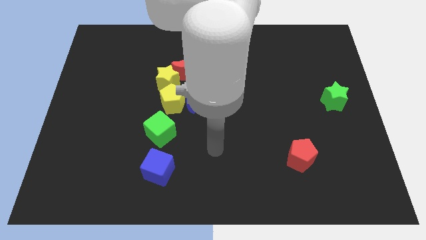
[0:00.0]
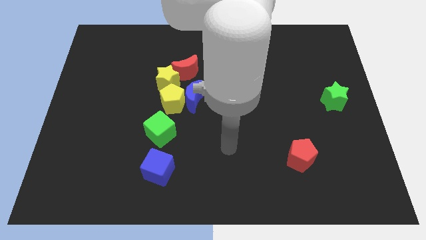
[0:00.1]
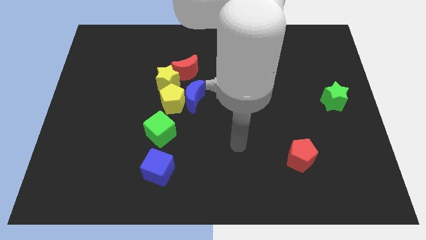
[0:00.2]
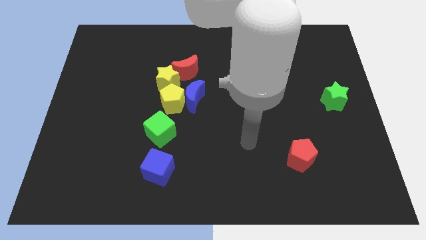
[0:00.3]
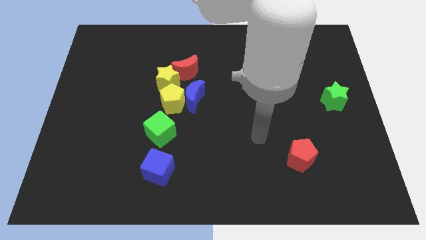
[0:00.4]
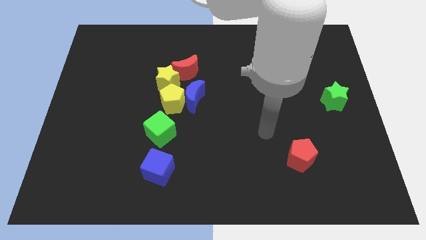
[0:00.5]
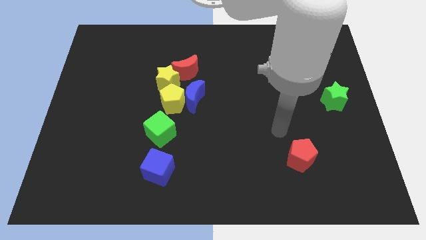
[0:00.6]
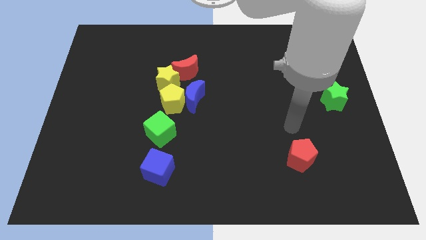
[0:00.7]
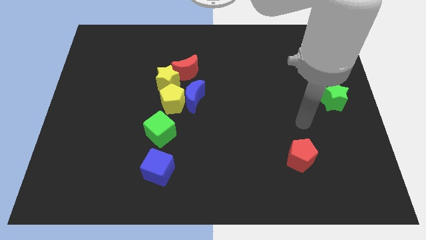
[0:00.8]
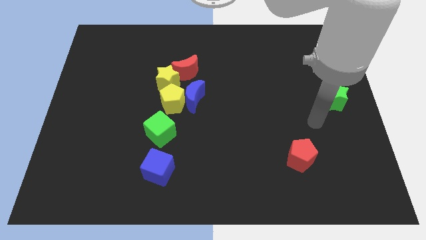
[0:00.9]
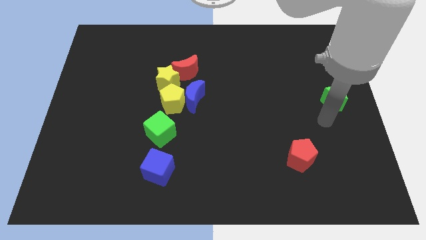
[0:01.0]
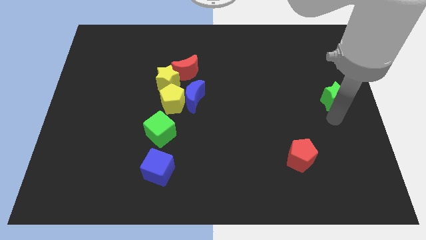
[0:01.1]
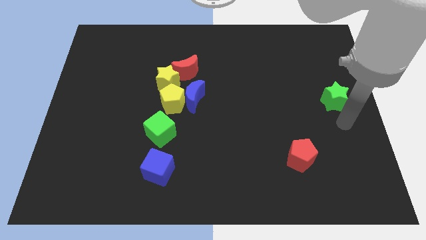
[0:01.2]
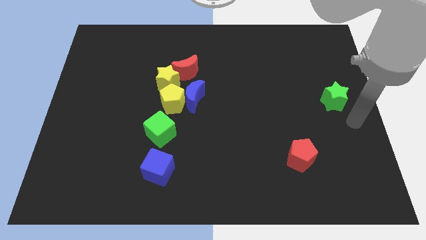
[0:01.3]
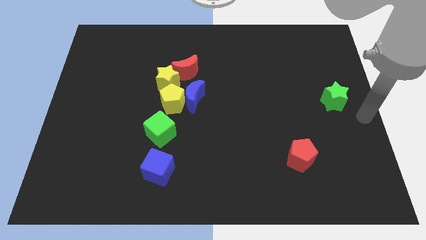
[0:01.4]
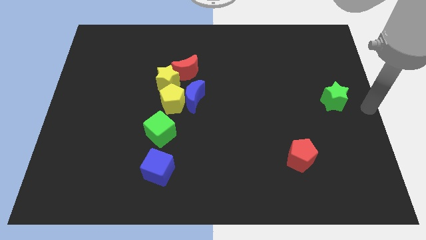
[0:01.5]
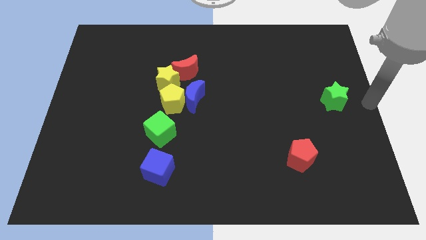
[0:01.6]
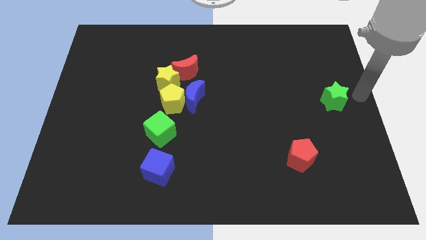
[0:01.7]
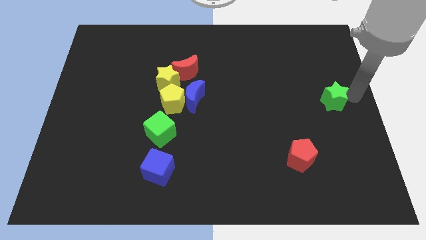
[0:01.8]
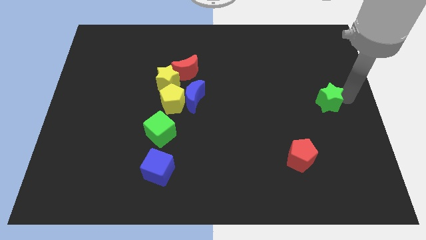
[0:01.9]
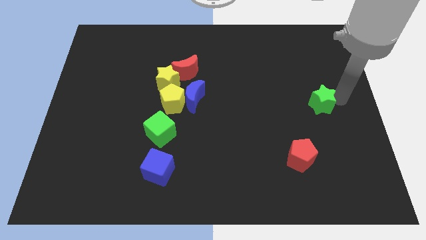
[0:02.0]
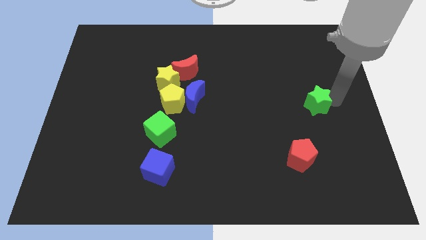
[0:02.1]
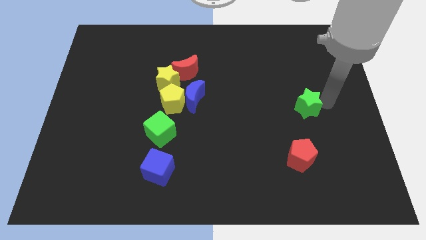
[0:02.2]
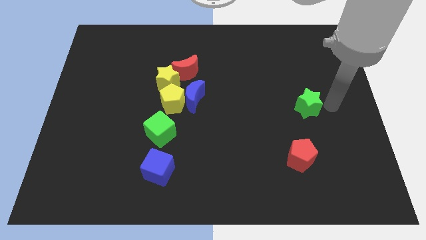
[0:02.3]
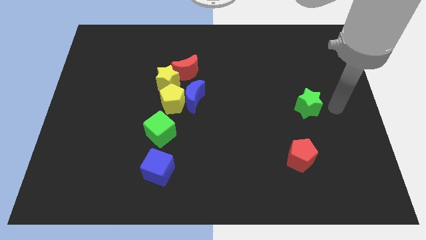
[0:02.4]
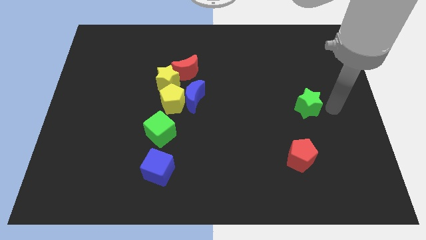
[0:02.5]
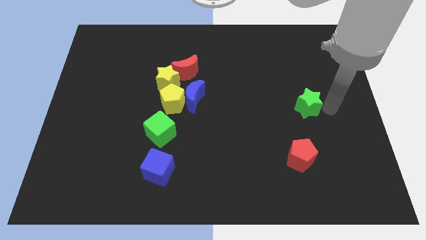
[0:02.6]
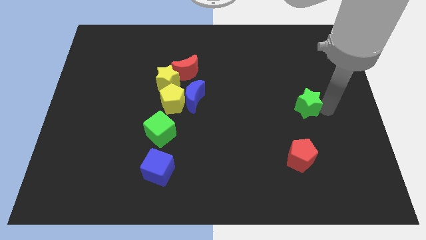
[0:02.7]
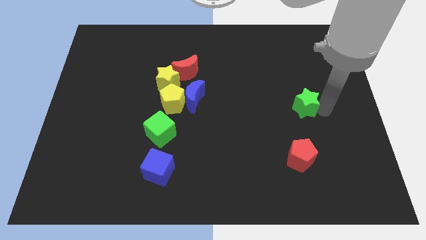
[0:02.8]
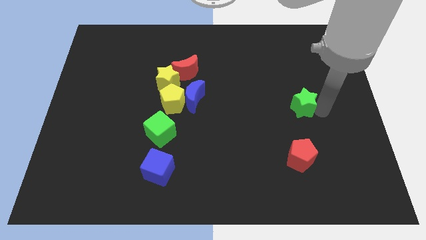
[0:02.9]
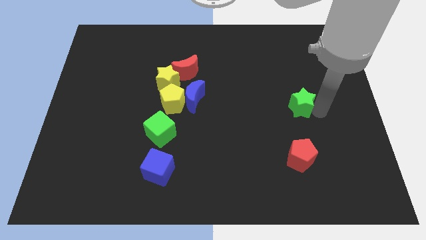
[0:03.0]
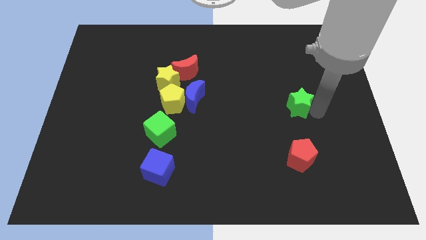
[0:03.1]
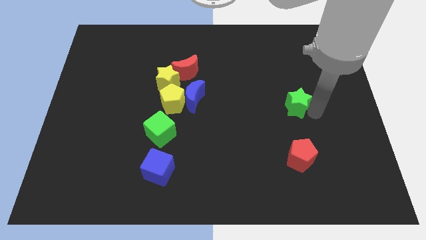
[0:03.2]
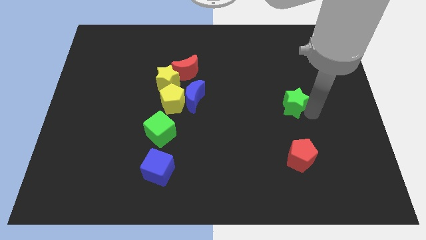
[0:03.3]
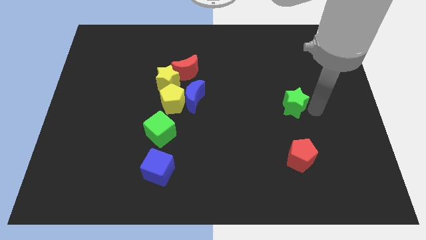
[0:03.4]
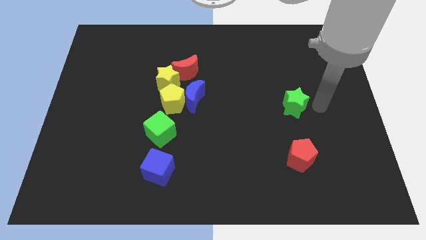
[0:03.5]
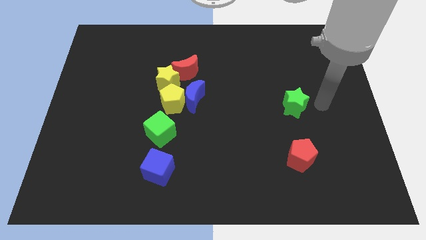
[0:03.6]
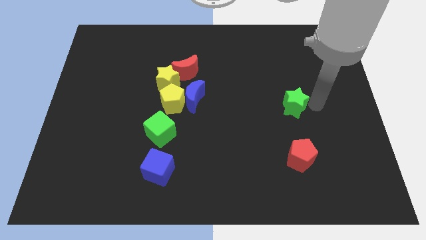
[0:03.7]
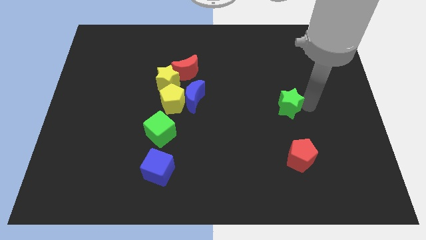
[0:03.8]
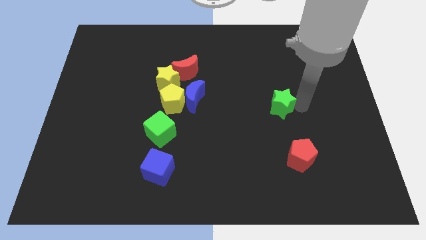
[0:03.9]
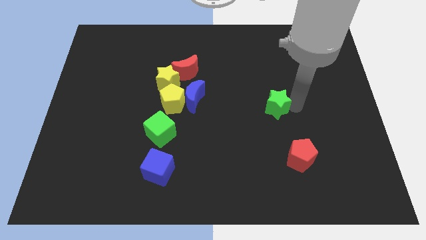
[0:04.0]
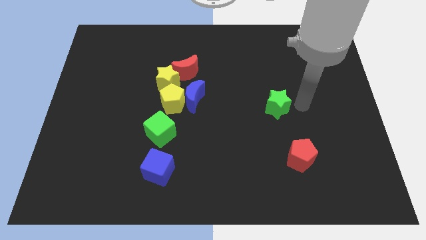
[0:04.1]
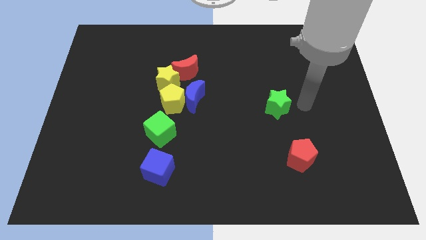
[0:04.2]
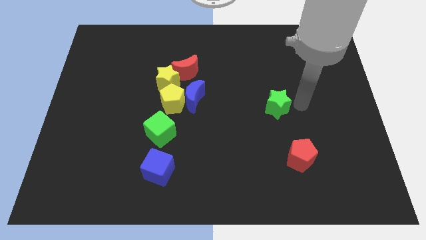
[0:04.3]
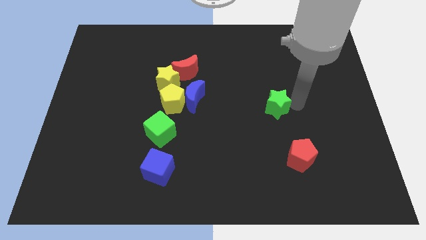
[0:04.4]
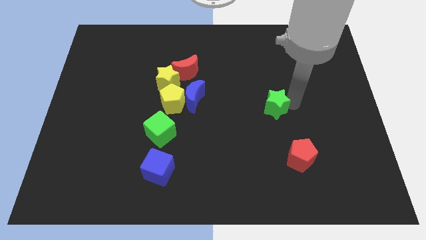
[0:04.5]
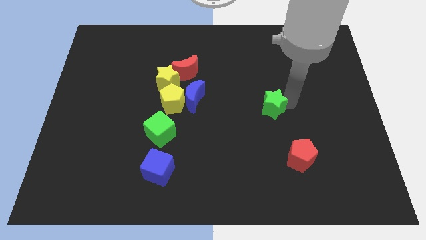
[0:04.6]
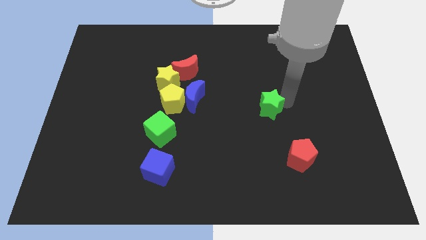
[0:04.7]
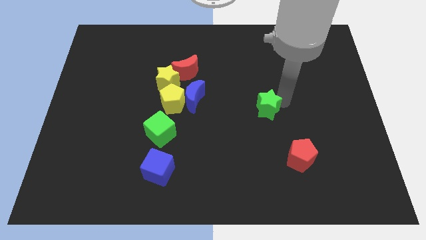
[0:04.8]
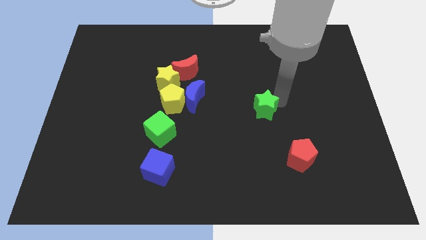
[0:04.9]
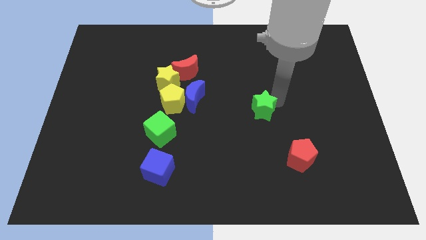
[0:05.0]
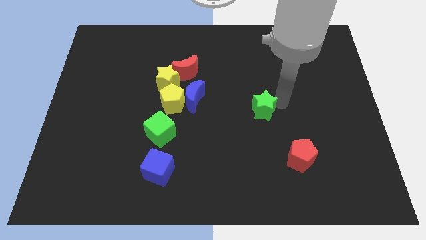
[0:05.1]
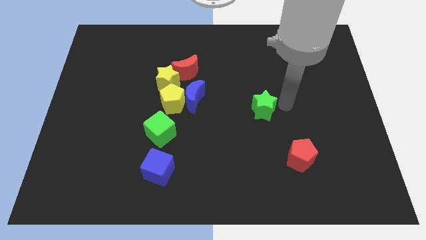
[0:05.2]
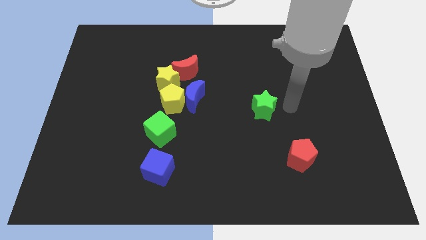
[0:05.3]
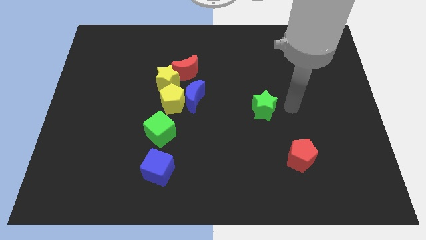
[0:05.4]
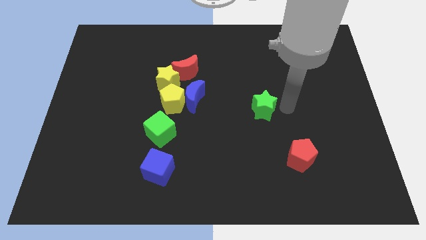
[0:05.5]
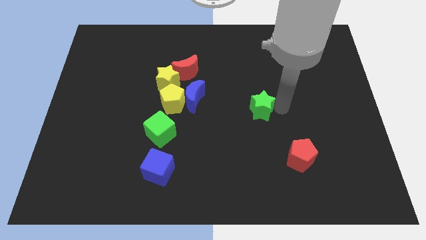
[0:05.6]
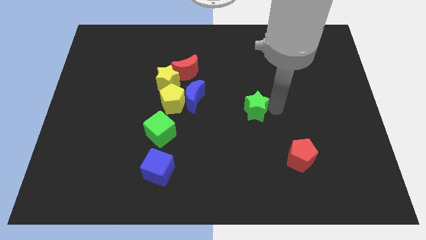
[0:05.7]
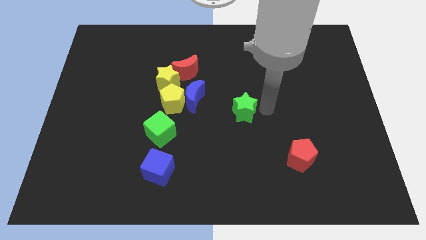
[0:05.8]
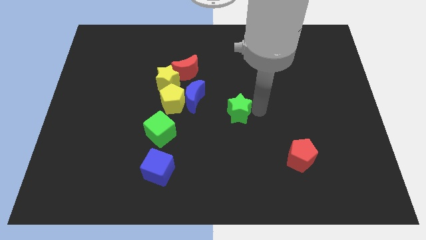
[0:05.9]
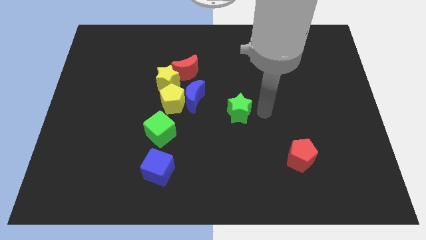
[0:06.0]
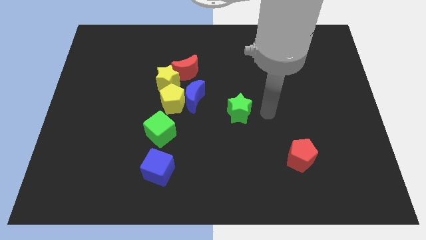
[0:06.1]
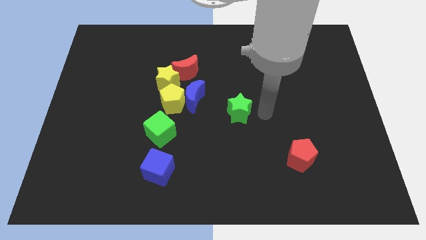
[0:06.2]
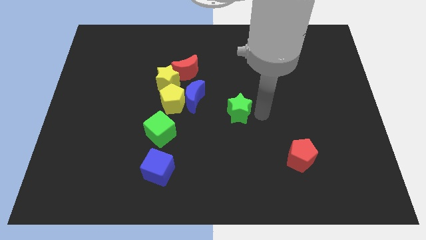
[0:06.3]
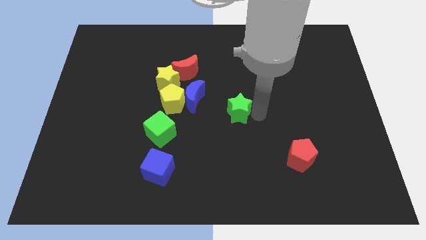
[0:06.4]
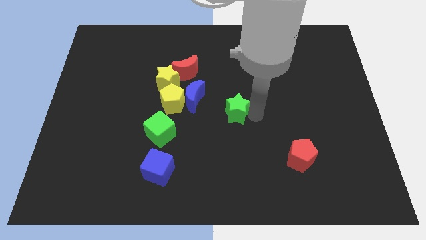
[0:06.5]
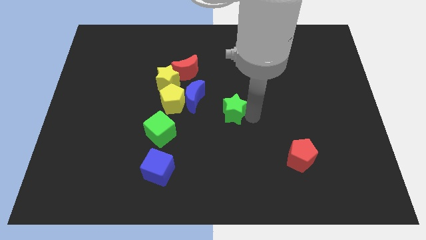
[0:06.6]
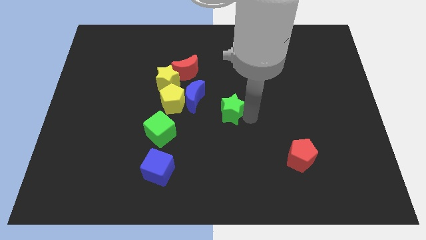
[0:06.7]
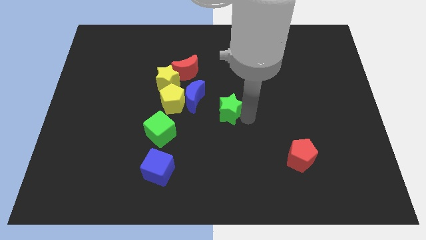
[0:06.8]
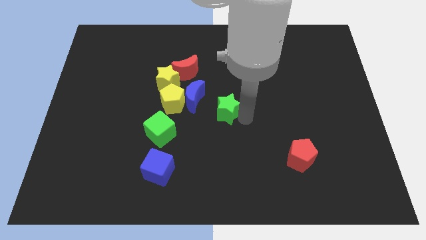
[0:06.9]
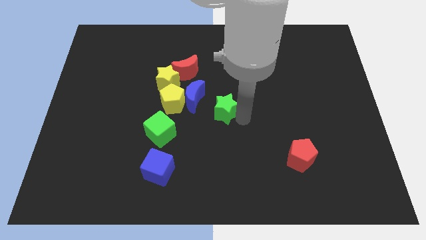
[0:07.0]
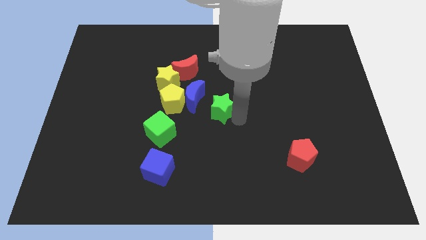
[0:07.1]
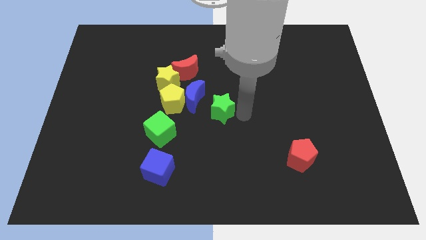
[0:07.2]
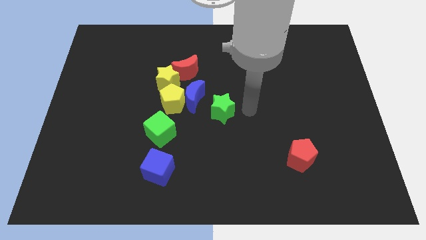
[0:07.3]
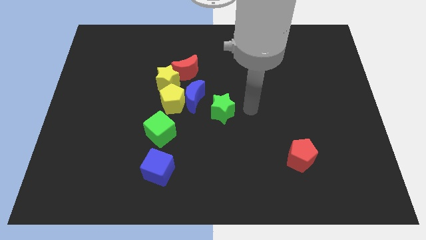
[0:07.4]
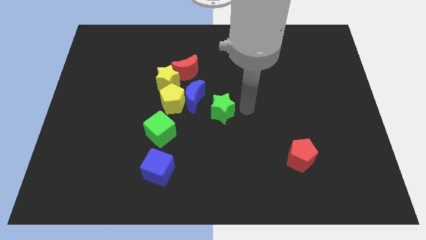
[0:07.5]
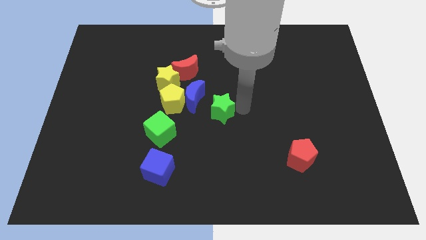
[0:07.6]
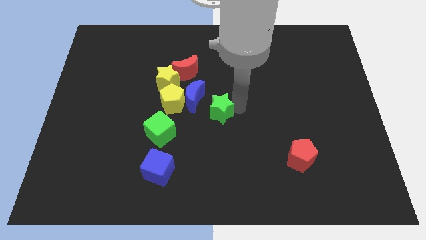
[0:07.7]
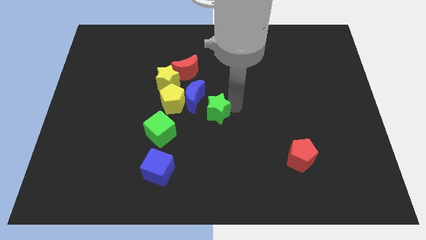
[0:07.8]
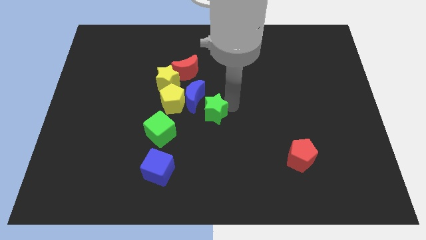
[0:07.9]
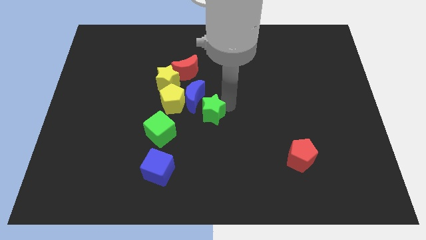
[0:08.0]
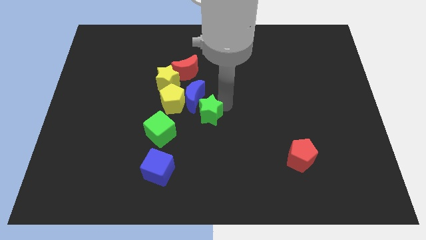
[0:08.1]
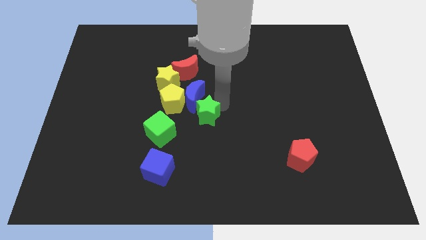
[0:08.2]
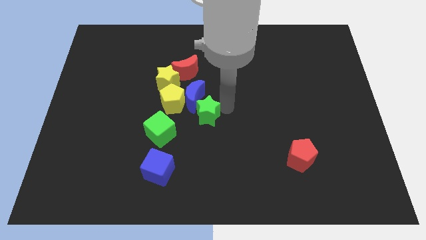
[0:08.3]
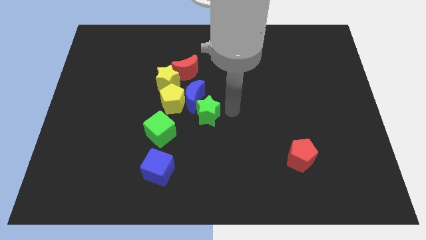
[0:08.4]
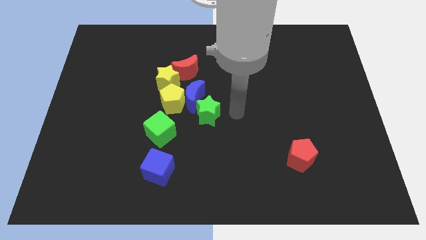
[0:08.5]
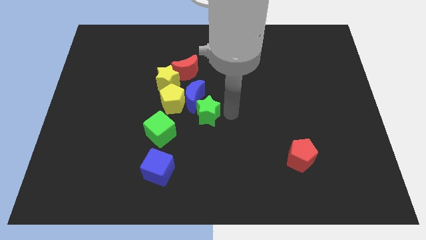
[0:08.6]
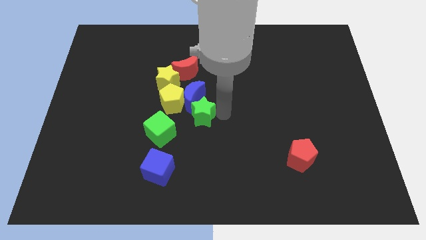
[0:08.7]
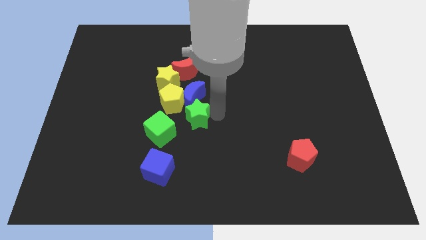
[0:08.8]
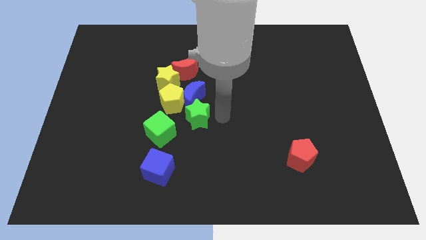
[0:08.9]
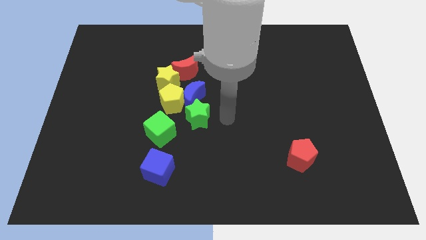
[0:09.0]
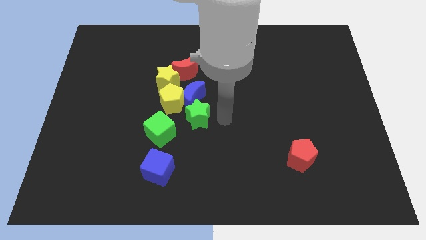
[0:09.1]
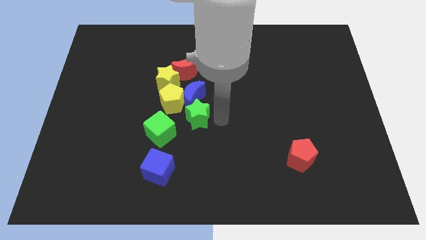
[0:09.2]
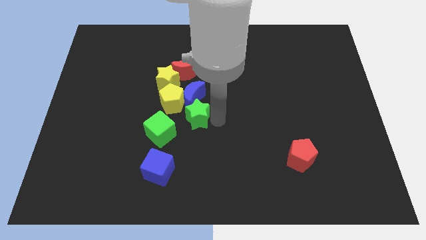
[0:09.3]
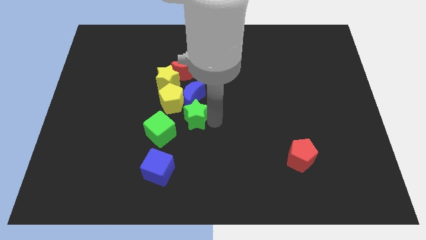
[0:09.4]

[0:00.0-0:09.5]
push the green star to the bottom left of the blue moon
